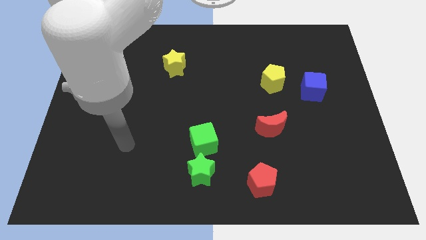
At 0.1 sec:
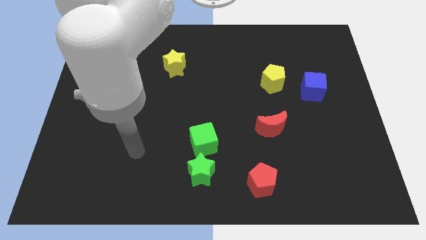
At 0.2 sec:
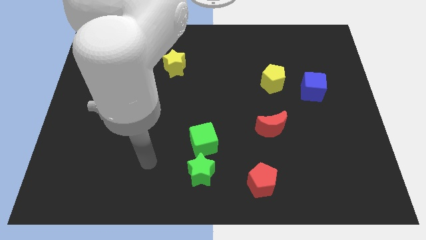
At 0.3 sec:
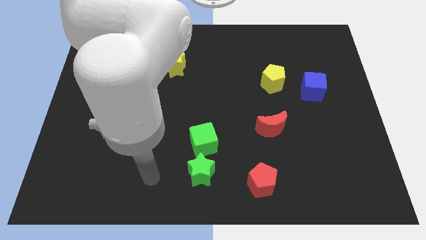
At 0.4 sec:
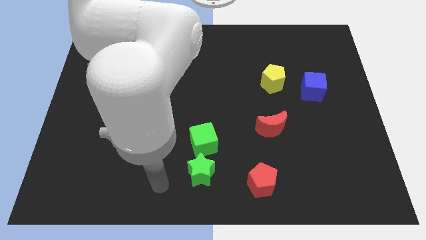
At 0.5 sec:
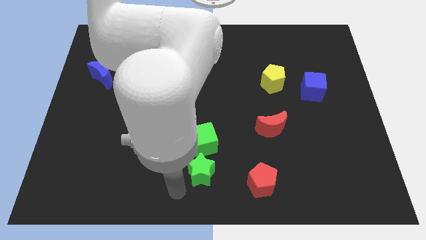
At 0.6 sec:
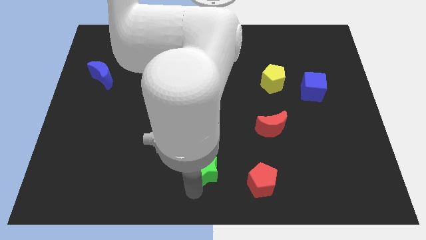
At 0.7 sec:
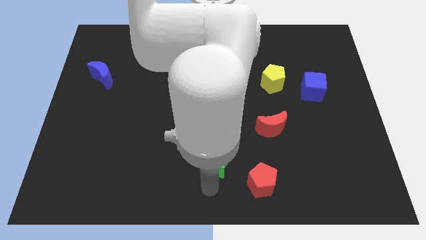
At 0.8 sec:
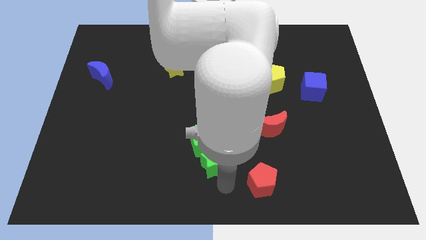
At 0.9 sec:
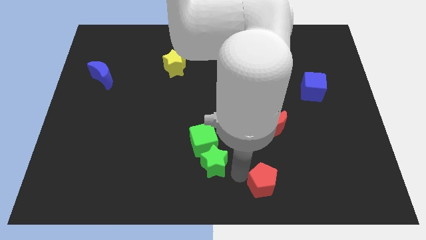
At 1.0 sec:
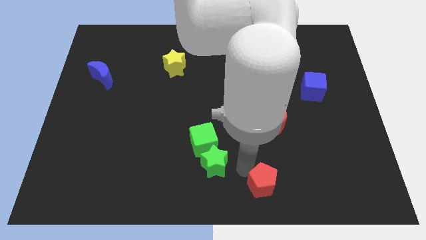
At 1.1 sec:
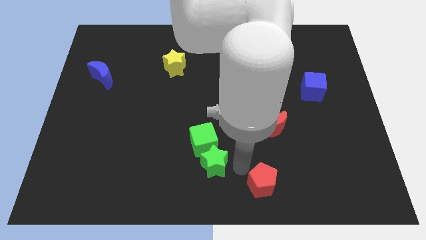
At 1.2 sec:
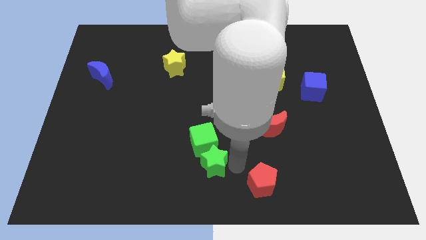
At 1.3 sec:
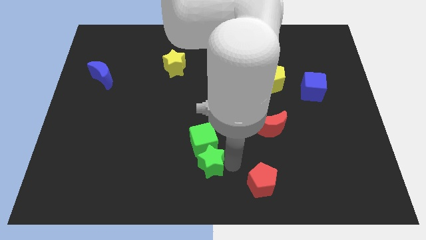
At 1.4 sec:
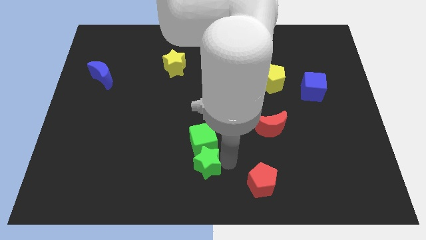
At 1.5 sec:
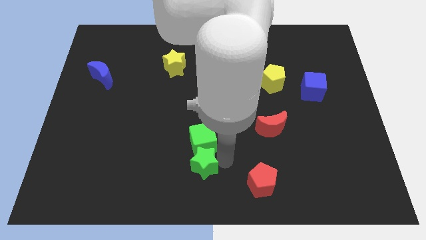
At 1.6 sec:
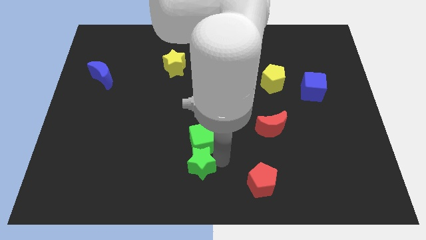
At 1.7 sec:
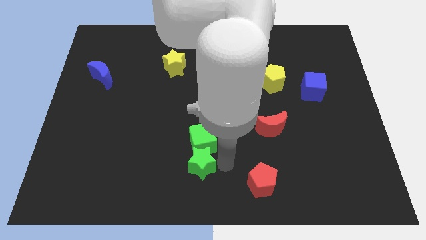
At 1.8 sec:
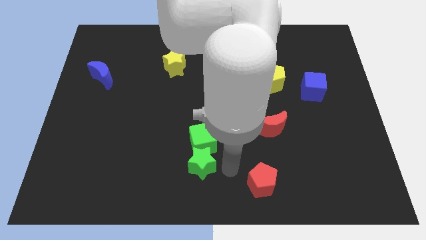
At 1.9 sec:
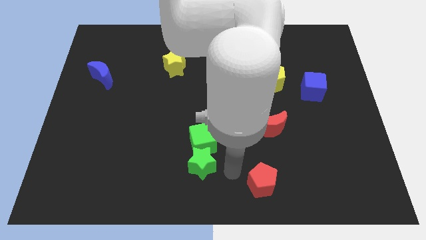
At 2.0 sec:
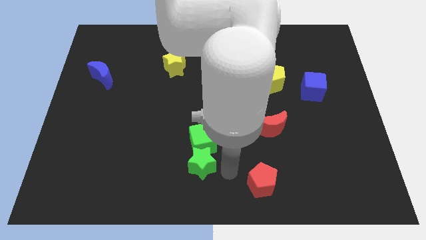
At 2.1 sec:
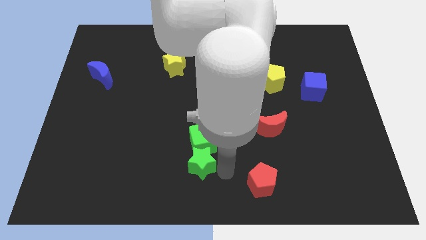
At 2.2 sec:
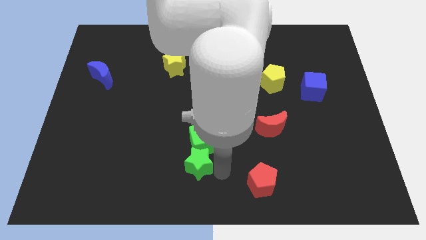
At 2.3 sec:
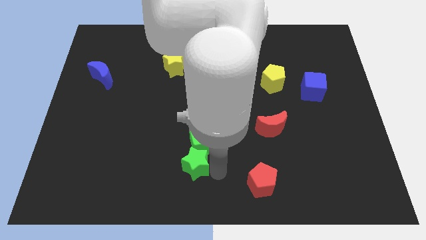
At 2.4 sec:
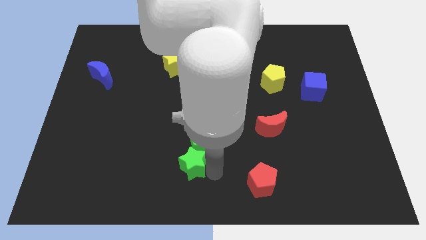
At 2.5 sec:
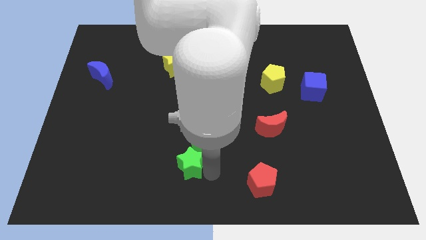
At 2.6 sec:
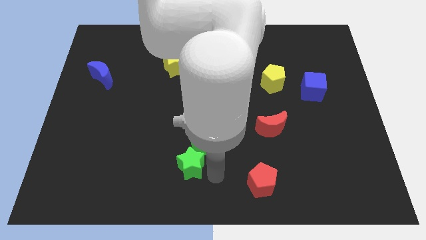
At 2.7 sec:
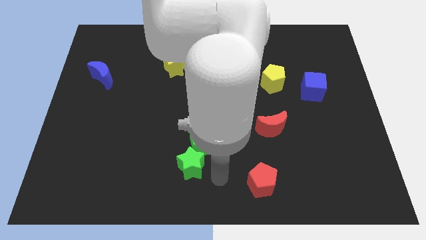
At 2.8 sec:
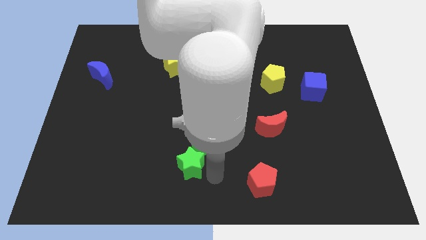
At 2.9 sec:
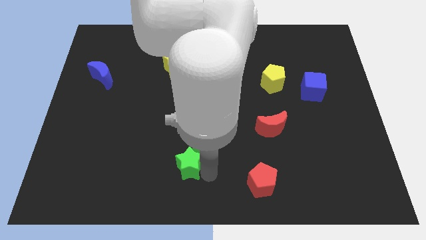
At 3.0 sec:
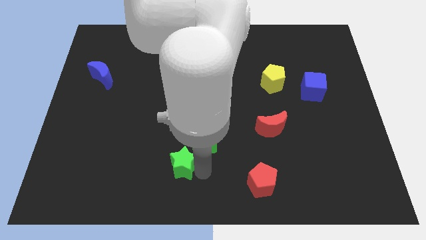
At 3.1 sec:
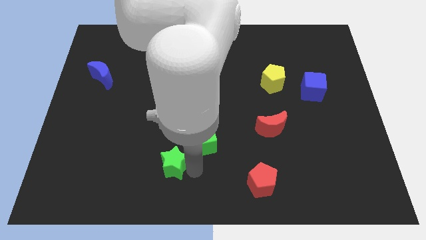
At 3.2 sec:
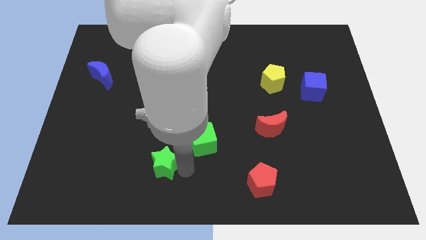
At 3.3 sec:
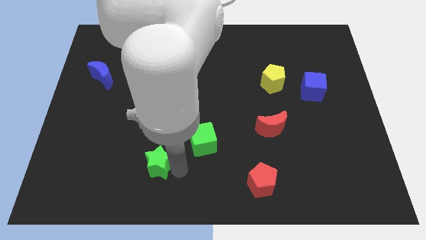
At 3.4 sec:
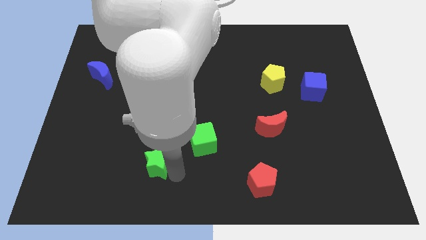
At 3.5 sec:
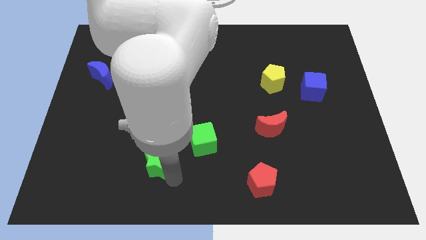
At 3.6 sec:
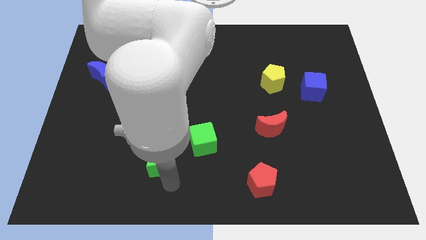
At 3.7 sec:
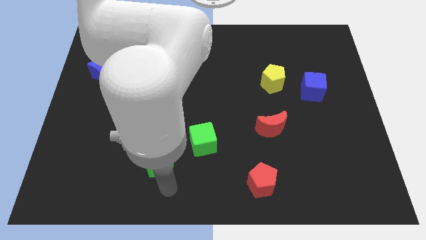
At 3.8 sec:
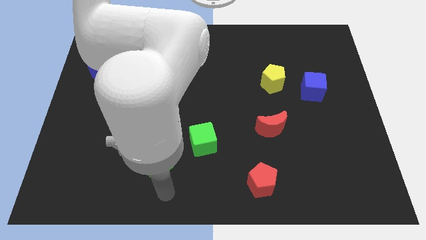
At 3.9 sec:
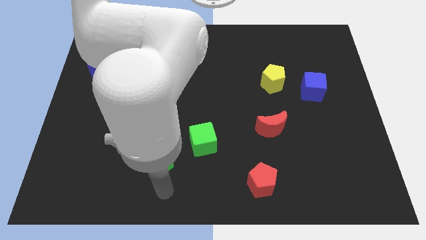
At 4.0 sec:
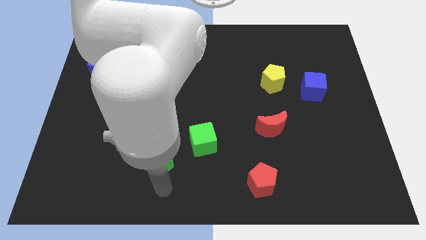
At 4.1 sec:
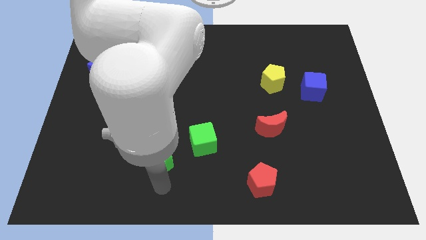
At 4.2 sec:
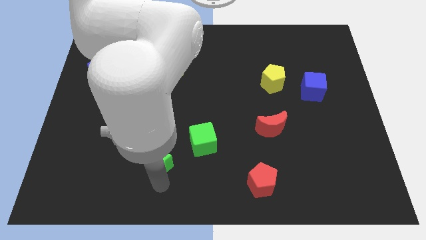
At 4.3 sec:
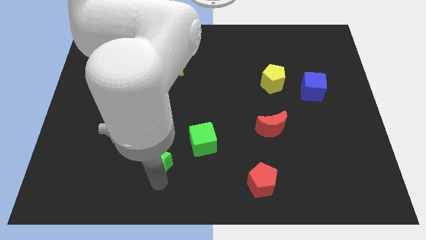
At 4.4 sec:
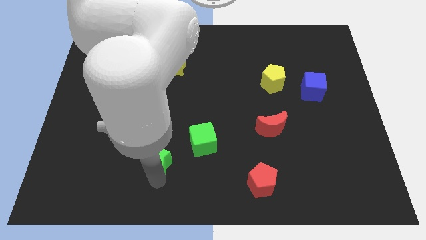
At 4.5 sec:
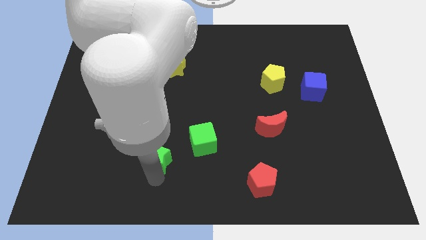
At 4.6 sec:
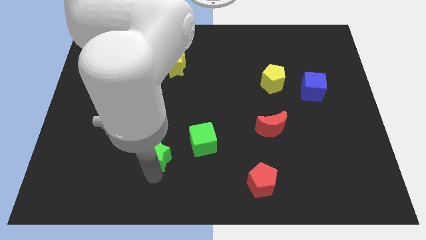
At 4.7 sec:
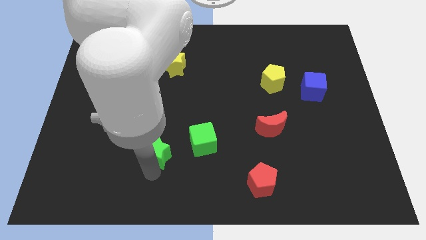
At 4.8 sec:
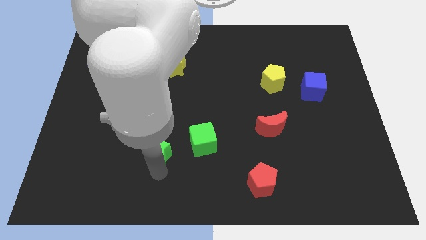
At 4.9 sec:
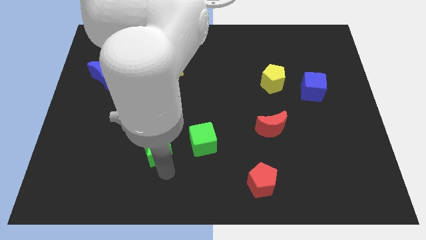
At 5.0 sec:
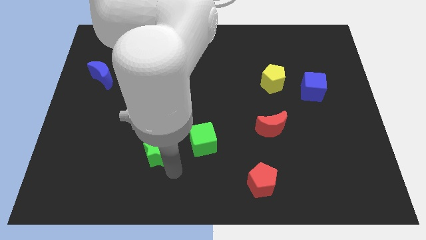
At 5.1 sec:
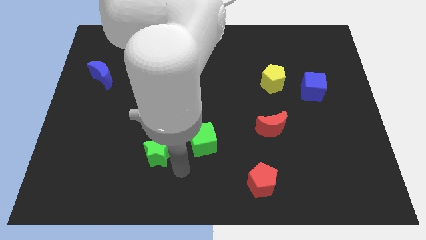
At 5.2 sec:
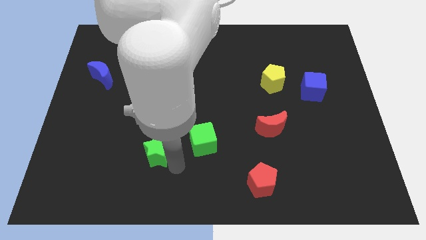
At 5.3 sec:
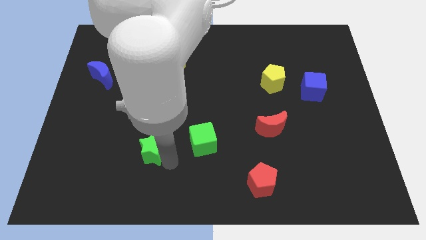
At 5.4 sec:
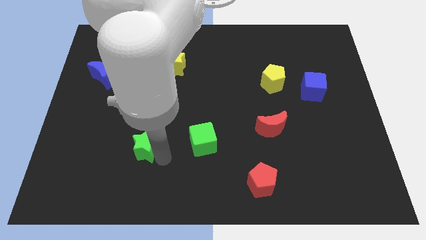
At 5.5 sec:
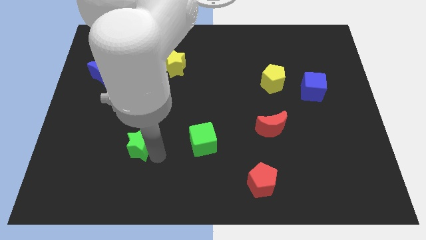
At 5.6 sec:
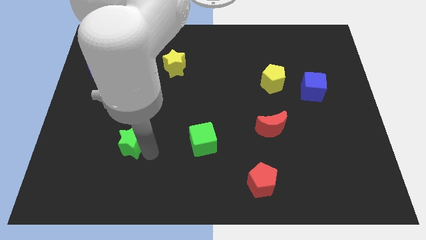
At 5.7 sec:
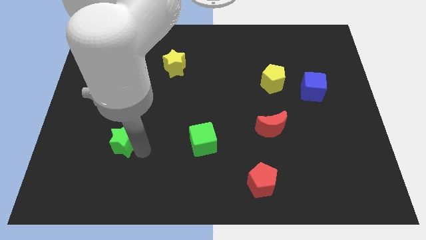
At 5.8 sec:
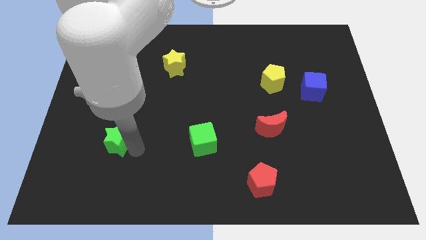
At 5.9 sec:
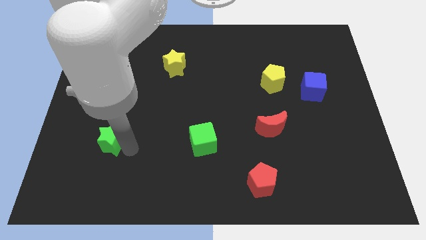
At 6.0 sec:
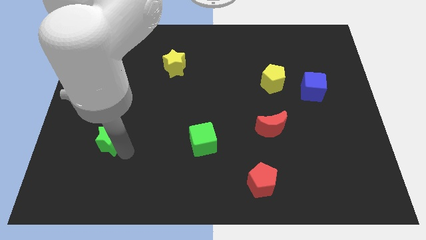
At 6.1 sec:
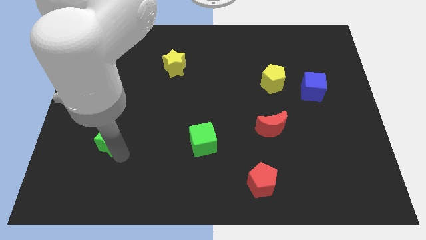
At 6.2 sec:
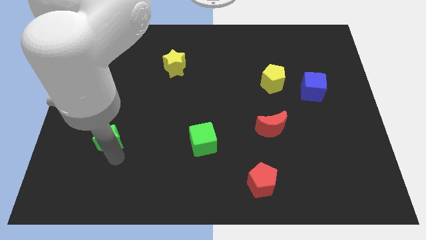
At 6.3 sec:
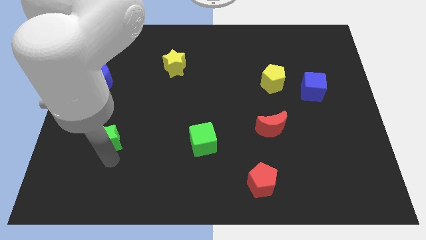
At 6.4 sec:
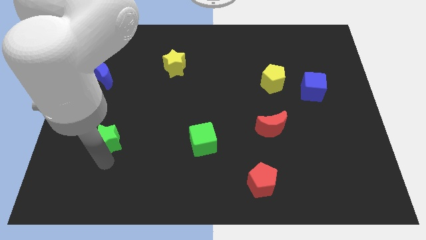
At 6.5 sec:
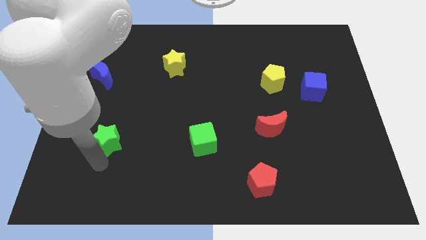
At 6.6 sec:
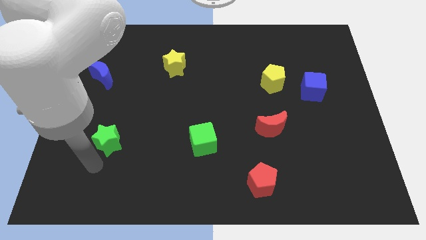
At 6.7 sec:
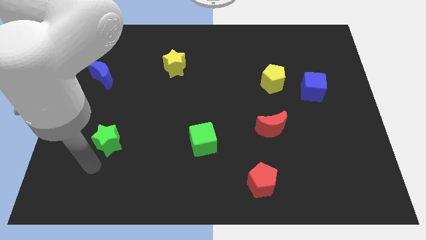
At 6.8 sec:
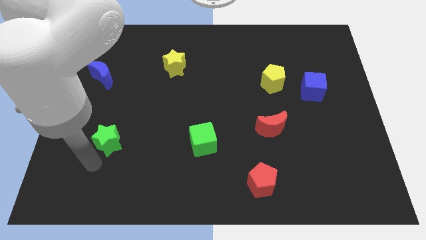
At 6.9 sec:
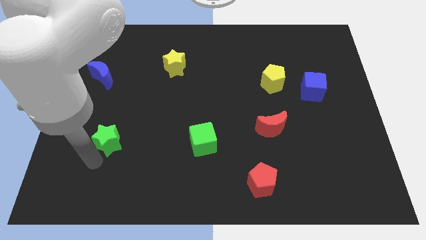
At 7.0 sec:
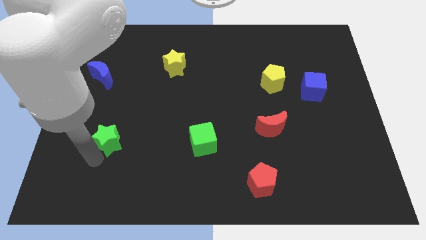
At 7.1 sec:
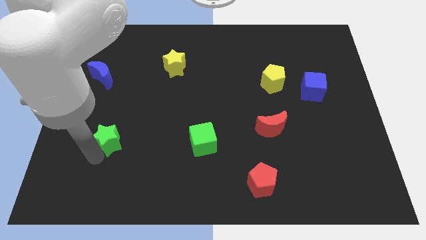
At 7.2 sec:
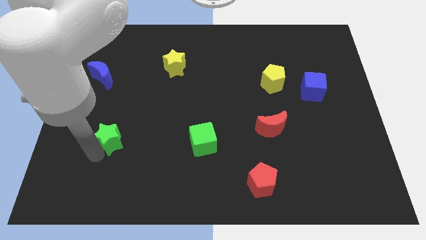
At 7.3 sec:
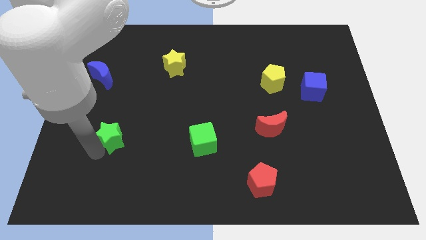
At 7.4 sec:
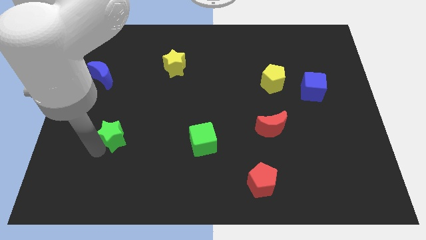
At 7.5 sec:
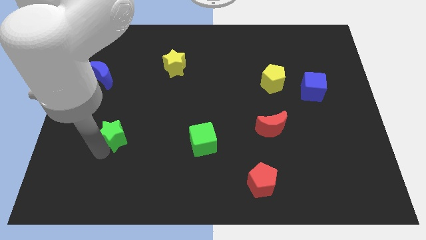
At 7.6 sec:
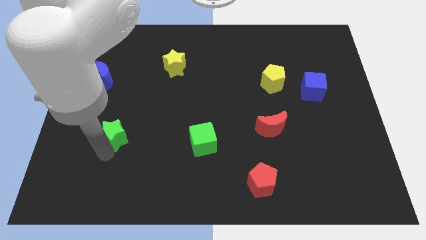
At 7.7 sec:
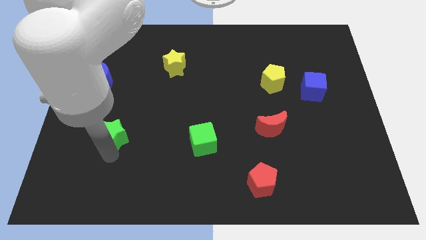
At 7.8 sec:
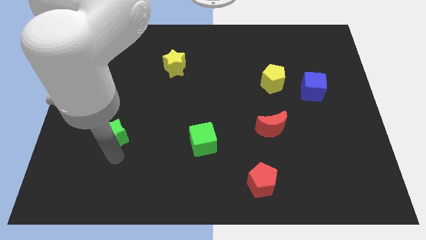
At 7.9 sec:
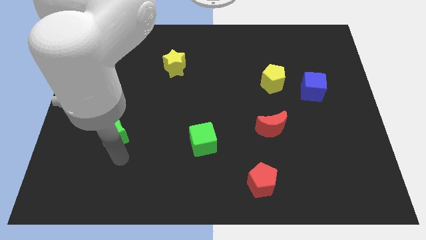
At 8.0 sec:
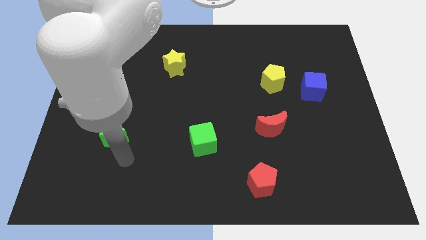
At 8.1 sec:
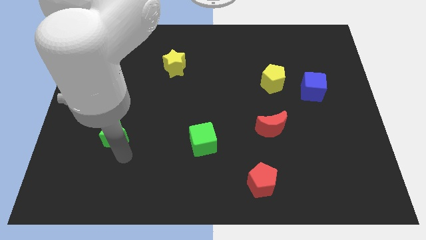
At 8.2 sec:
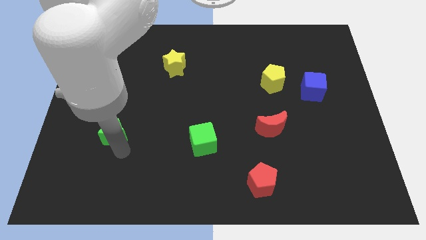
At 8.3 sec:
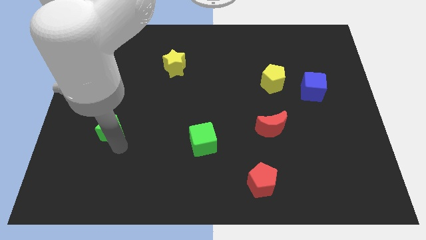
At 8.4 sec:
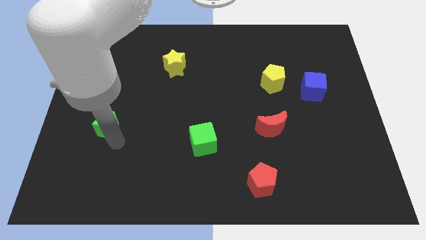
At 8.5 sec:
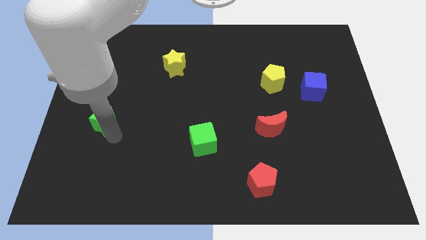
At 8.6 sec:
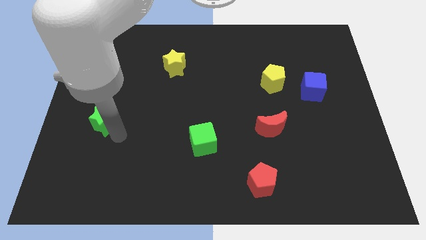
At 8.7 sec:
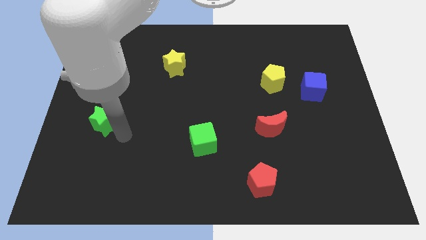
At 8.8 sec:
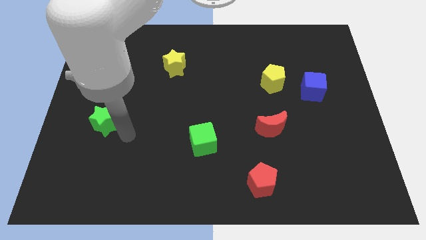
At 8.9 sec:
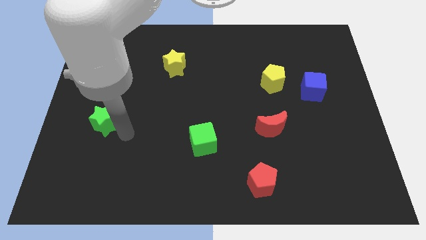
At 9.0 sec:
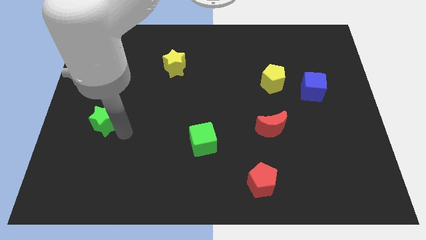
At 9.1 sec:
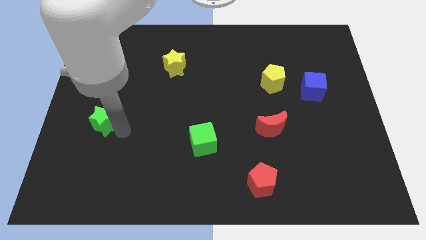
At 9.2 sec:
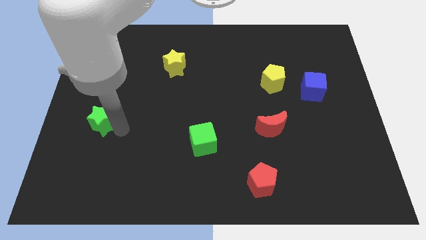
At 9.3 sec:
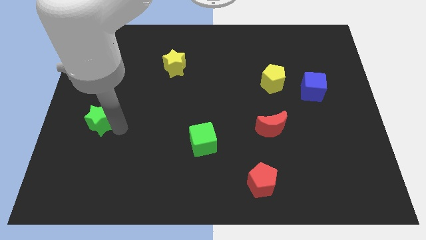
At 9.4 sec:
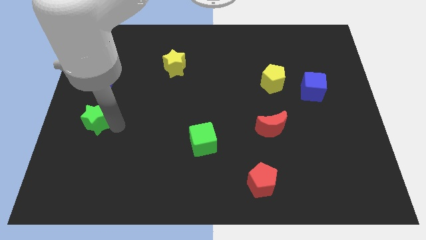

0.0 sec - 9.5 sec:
slide the green star to the center left
